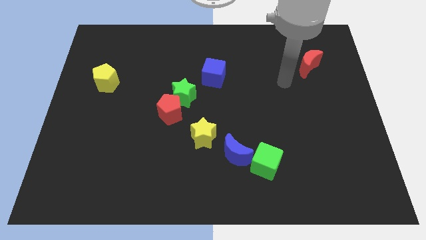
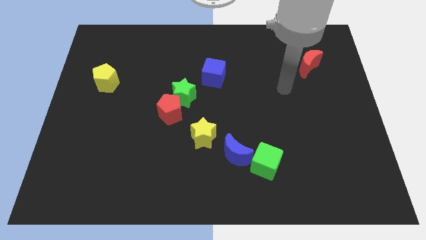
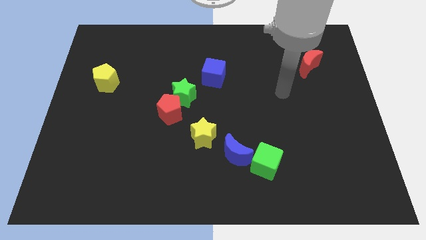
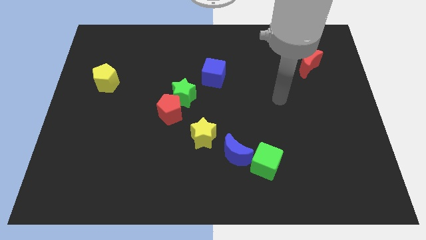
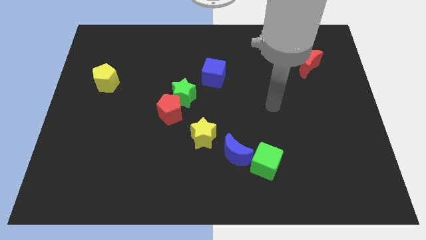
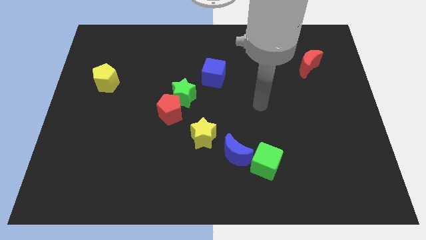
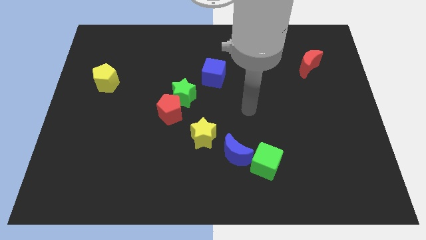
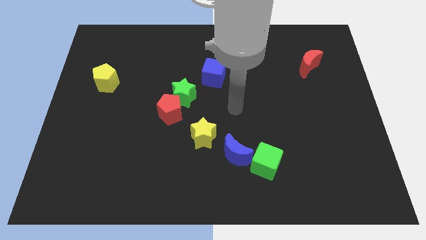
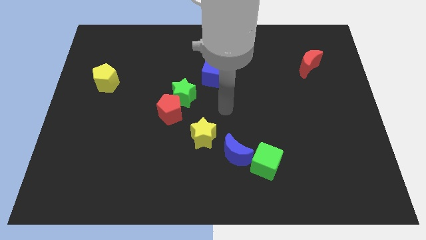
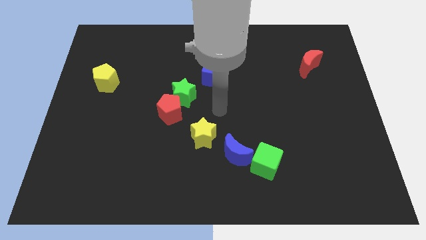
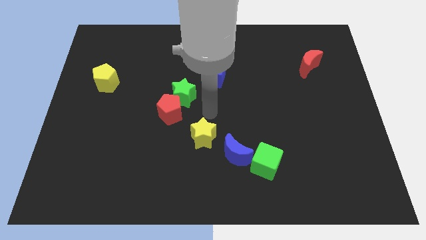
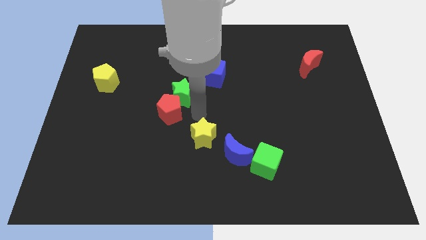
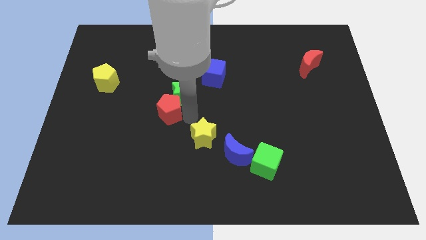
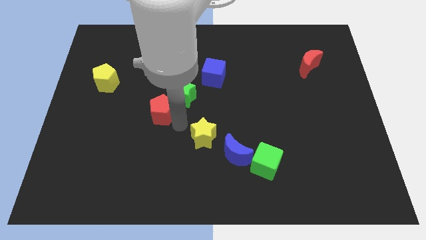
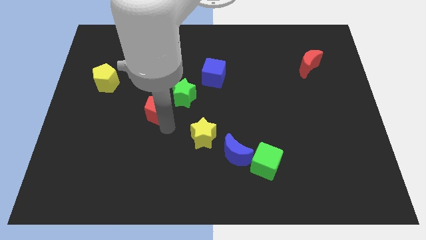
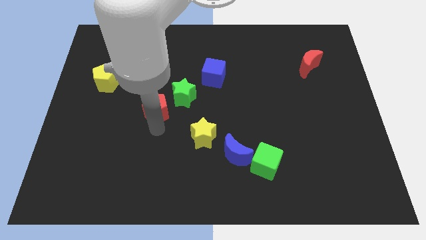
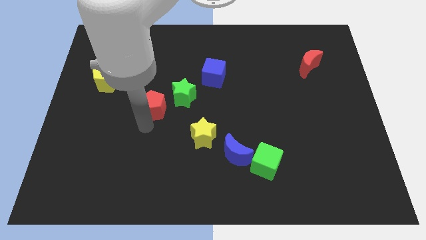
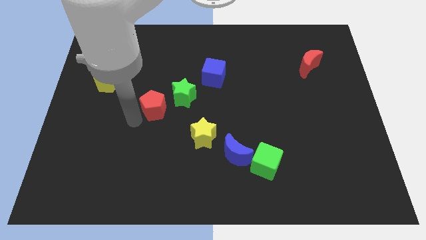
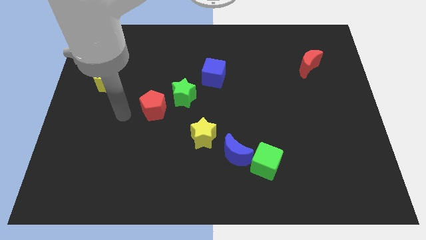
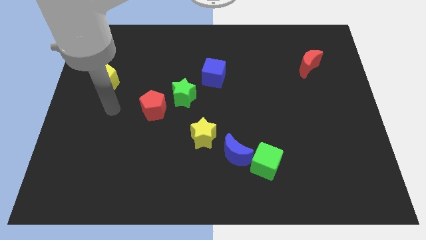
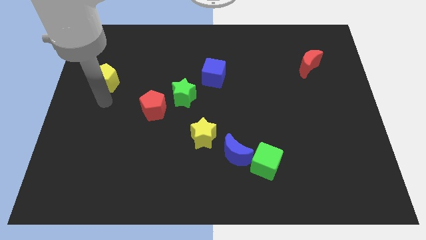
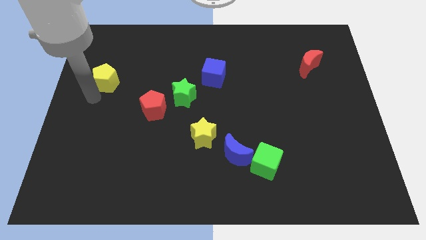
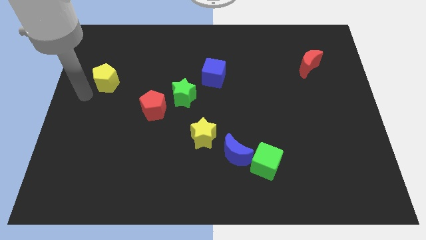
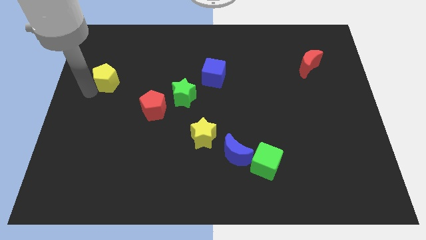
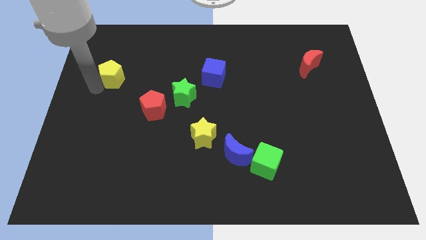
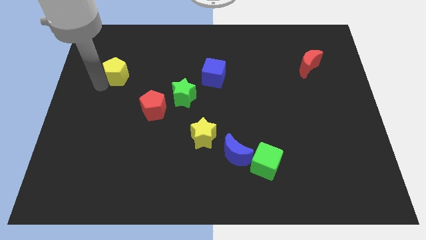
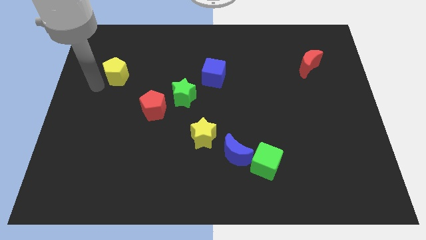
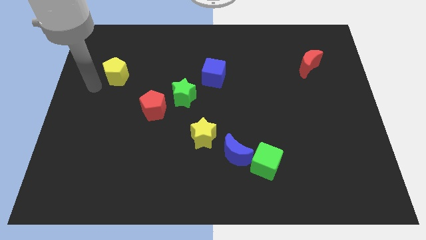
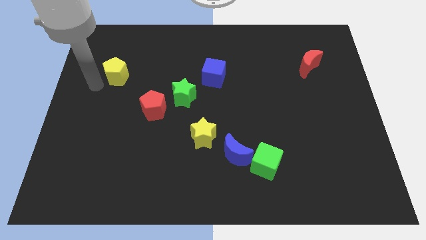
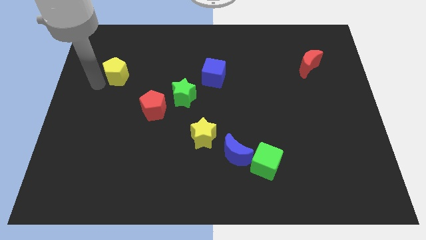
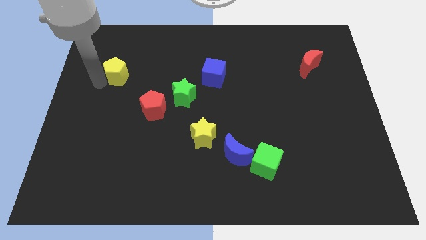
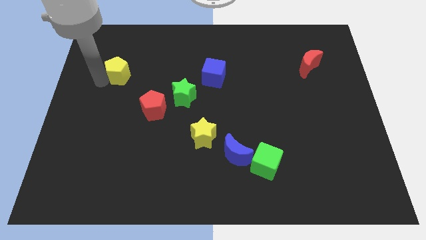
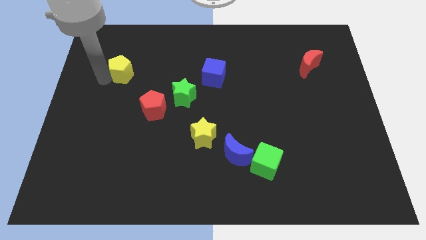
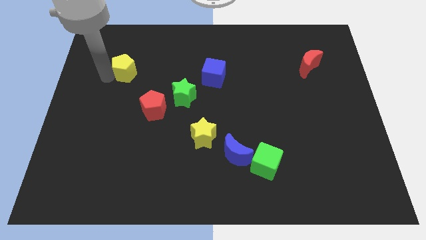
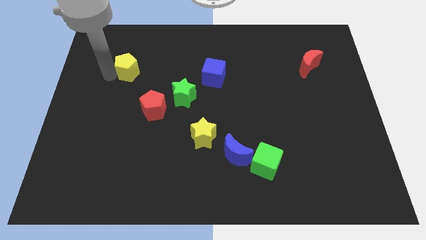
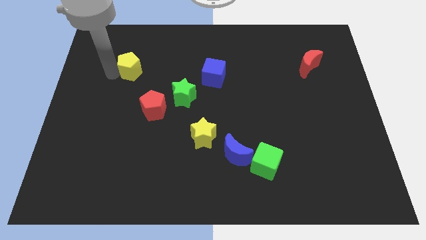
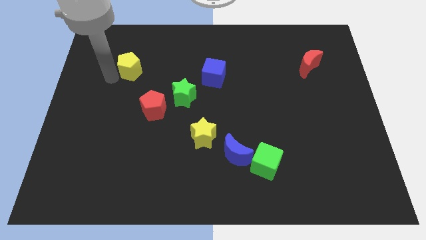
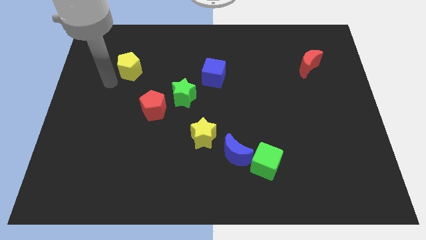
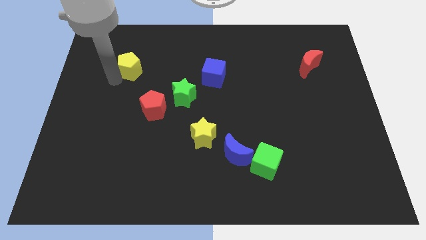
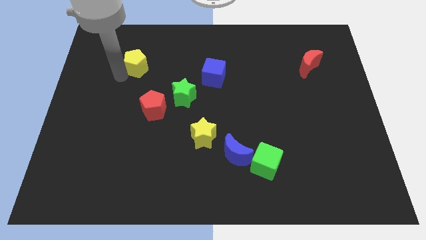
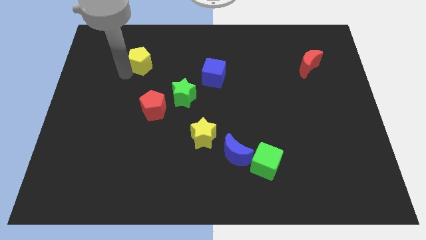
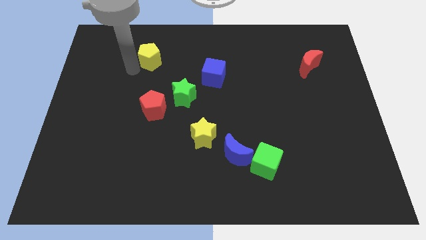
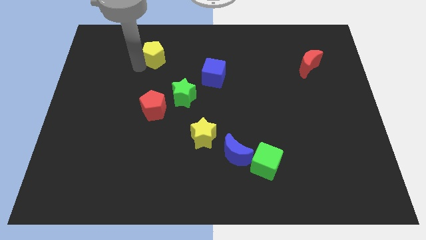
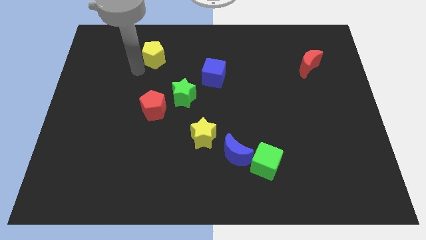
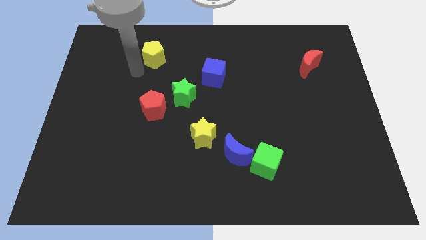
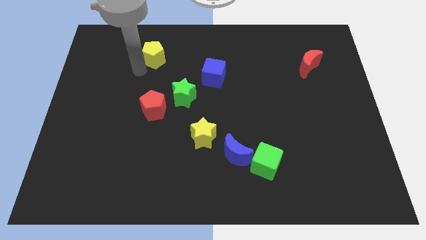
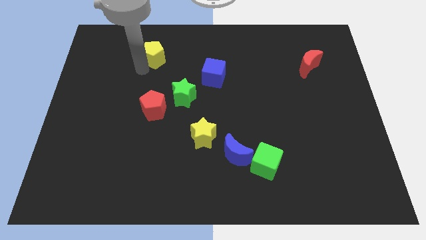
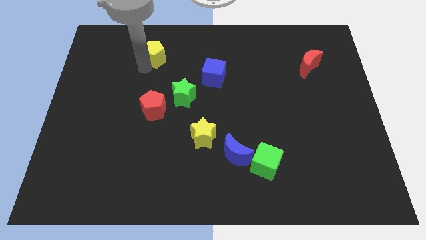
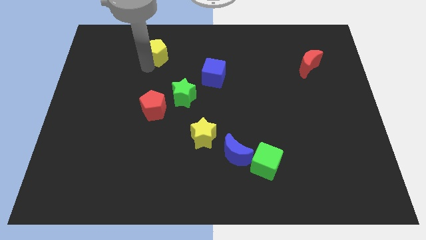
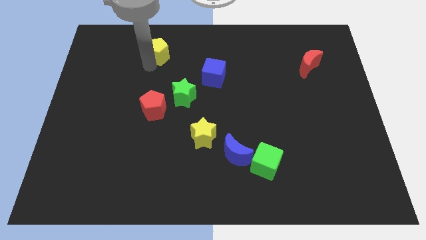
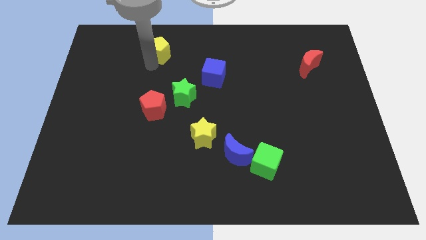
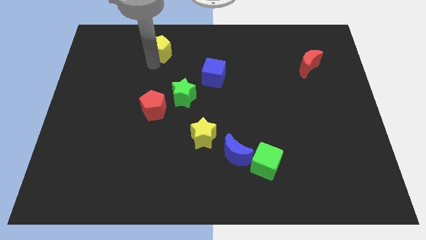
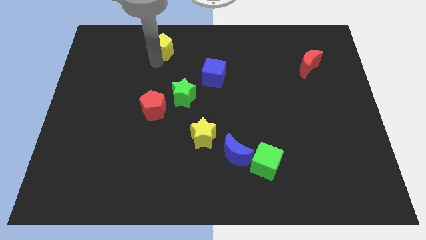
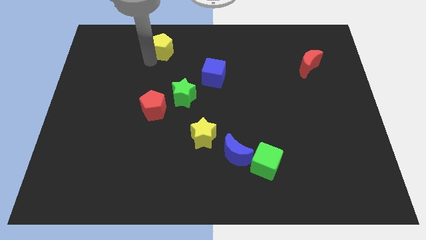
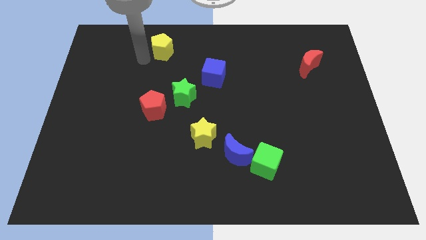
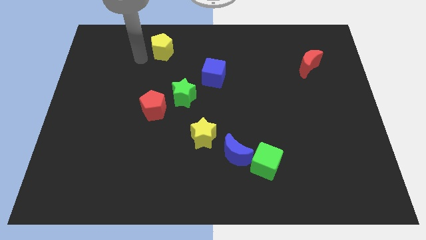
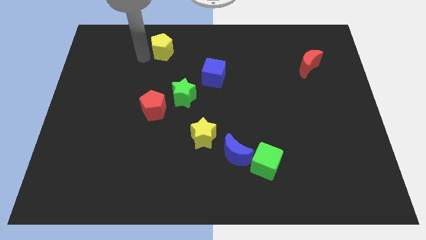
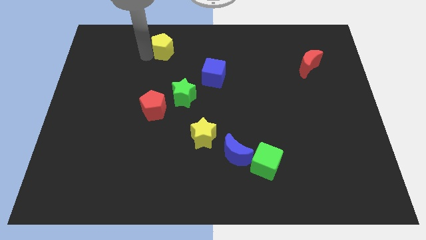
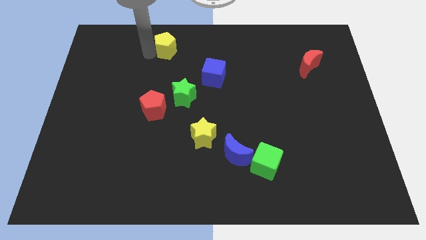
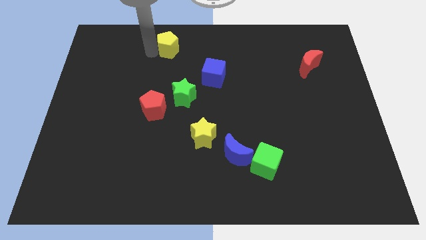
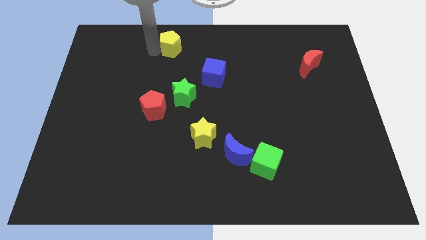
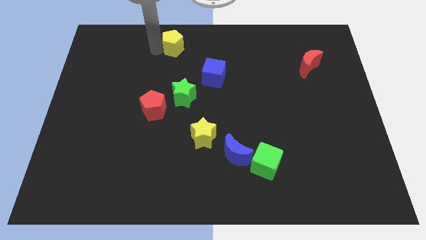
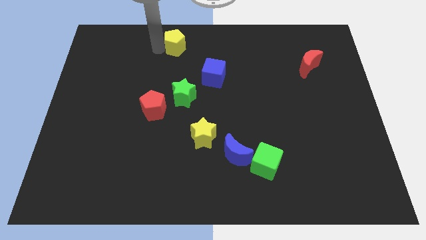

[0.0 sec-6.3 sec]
move the yellow pentagon to the towards your base

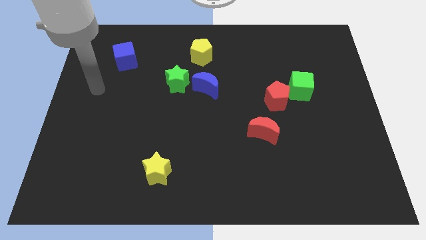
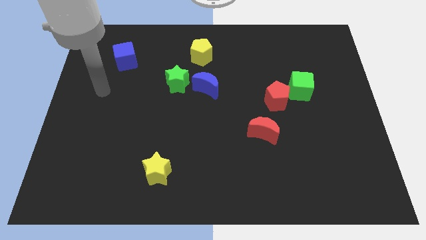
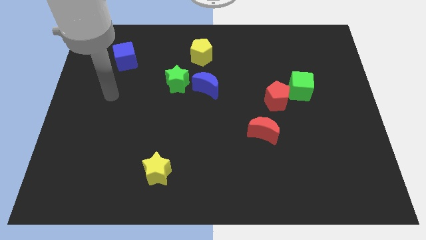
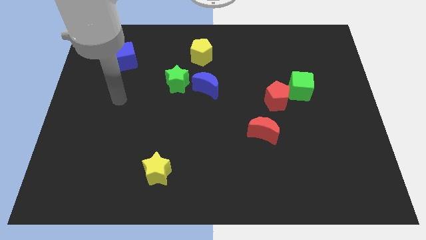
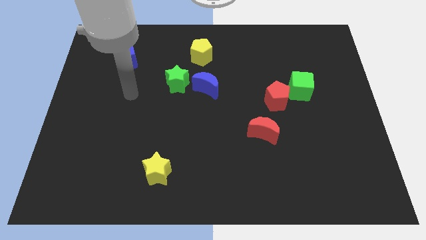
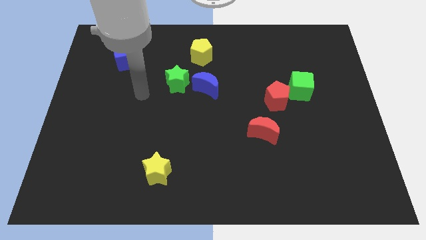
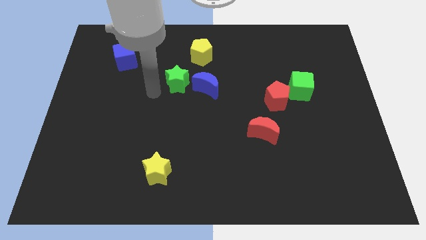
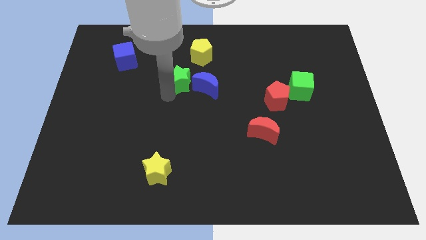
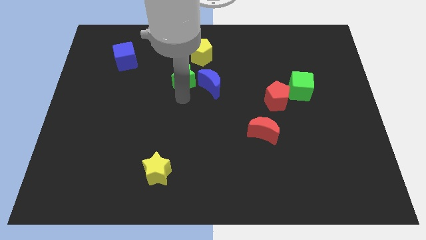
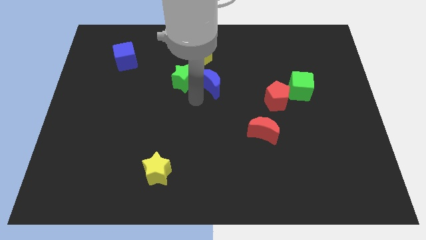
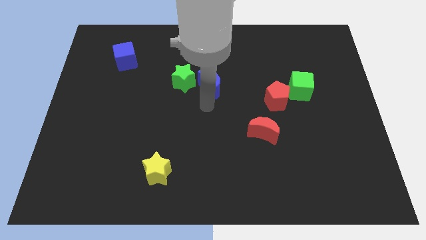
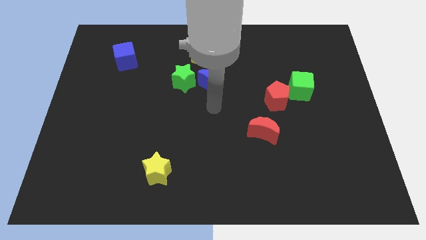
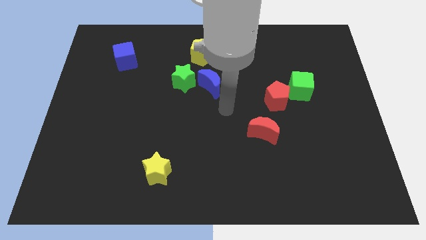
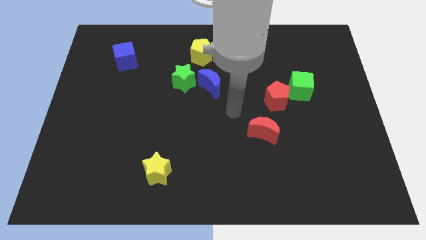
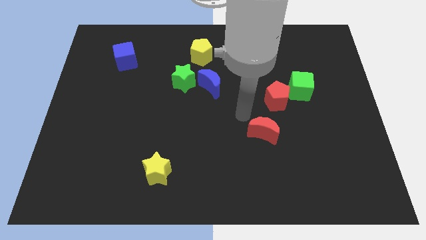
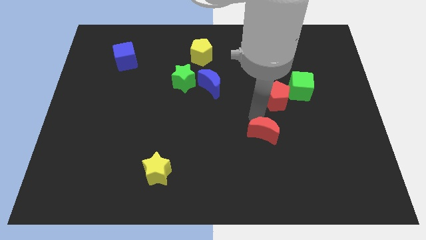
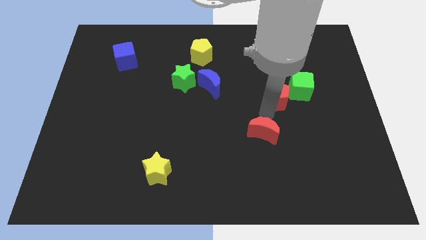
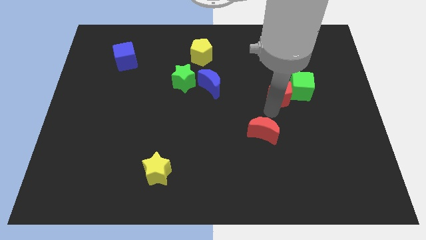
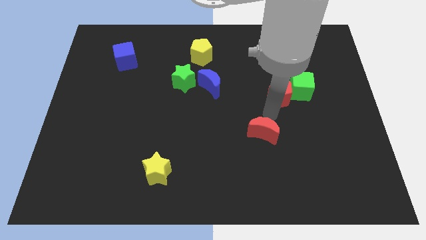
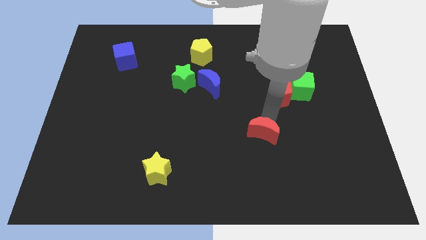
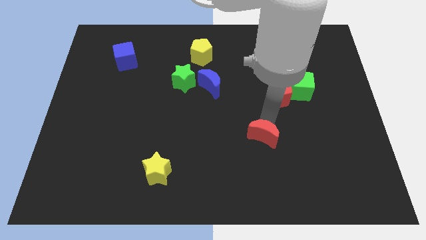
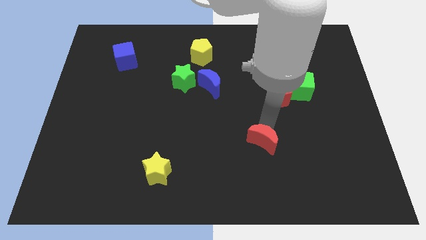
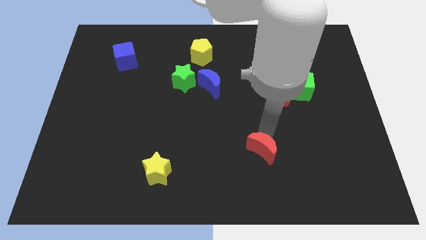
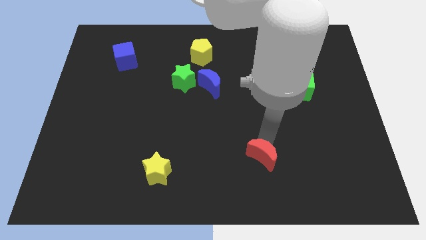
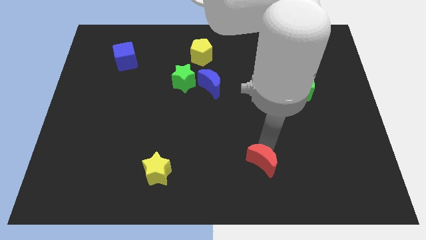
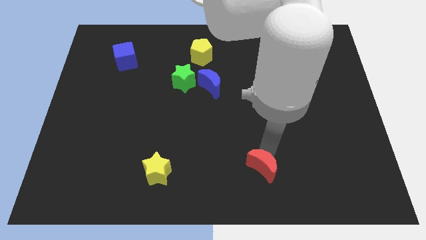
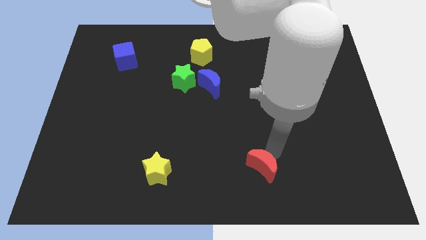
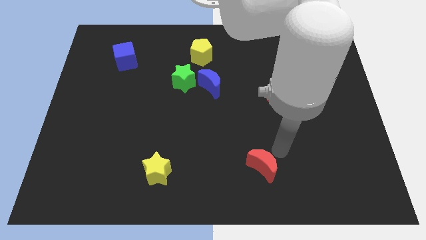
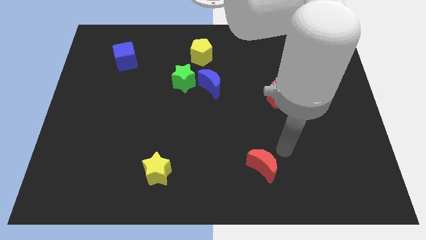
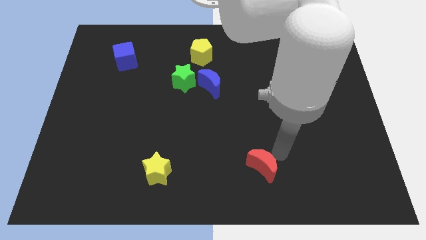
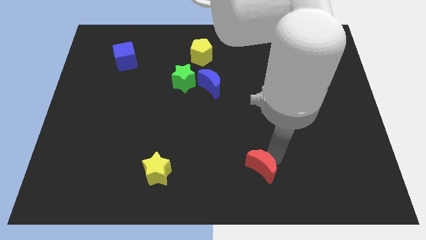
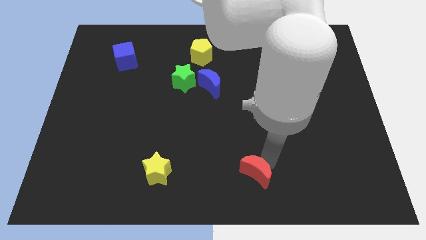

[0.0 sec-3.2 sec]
move the red moon to the bottom
